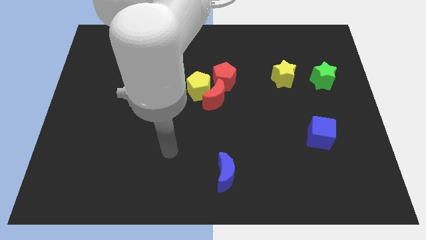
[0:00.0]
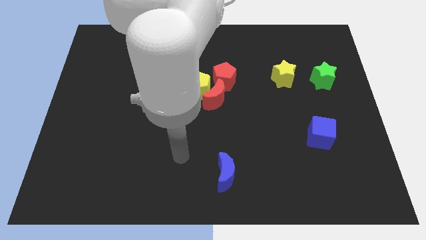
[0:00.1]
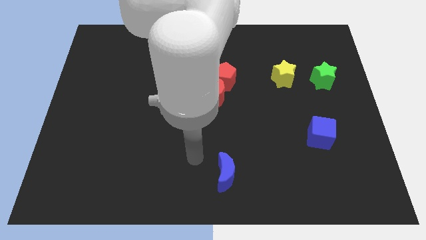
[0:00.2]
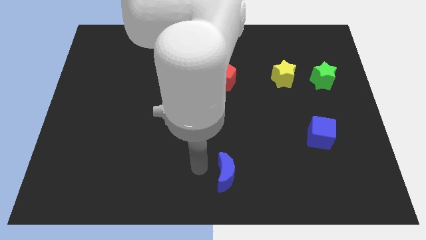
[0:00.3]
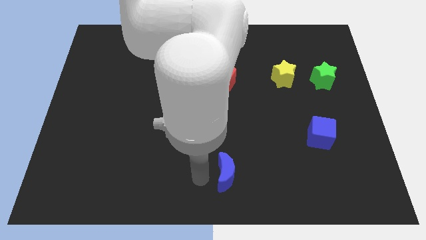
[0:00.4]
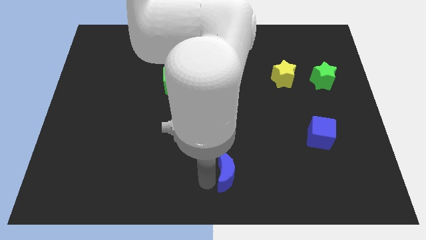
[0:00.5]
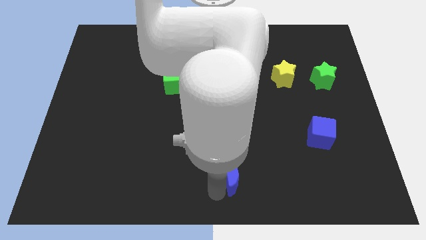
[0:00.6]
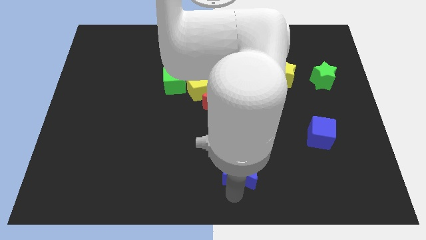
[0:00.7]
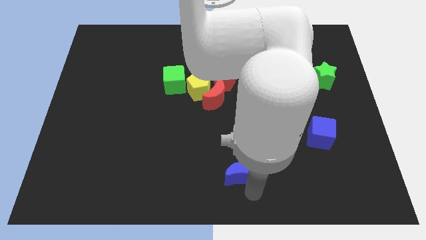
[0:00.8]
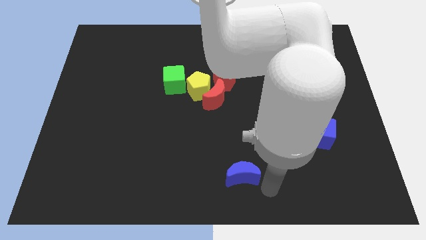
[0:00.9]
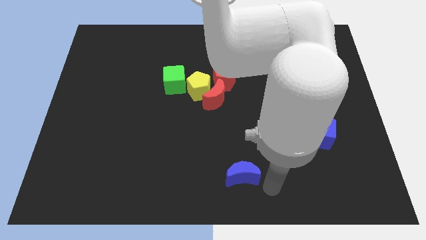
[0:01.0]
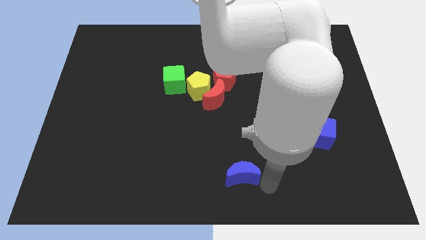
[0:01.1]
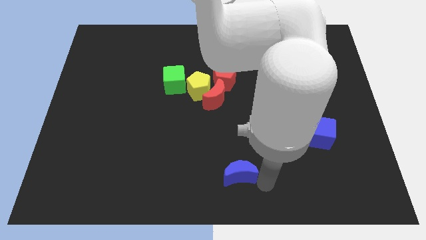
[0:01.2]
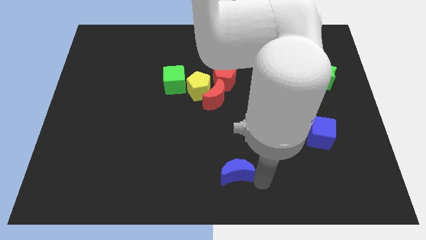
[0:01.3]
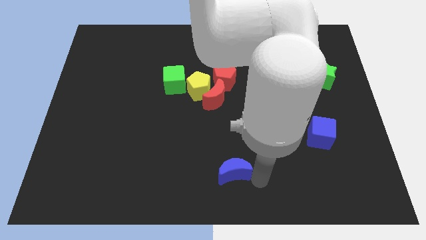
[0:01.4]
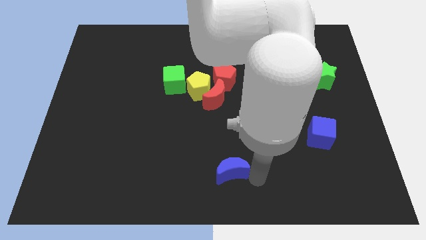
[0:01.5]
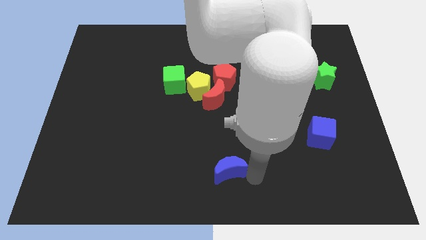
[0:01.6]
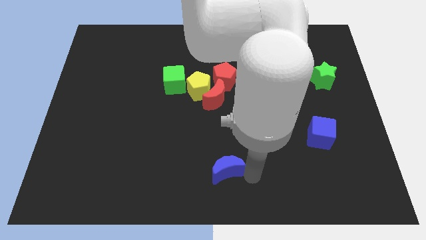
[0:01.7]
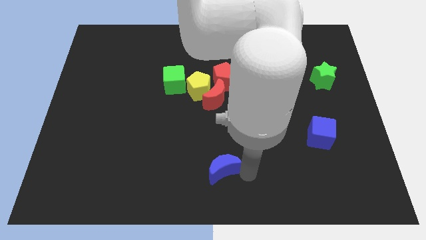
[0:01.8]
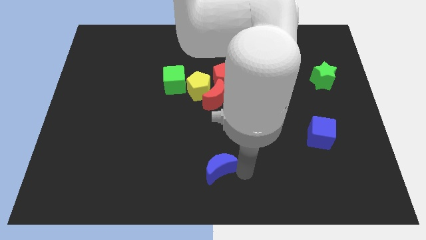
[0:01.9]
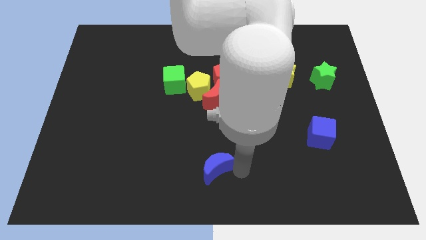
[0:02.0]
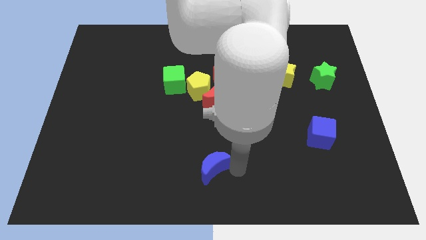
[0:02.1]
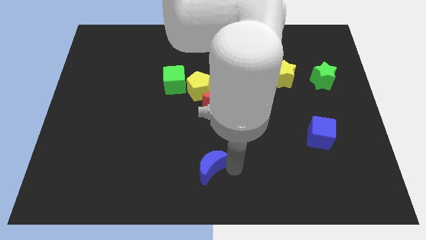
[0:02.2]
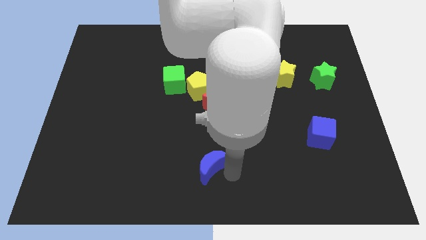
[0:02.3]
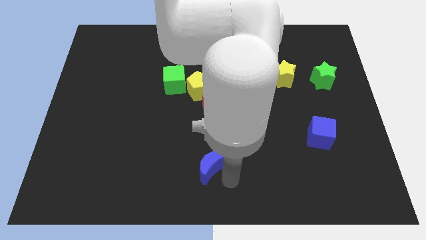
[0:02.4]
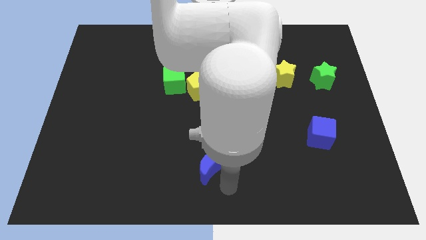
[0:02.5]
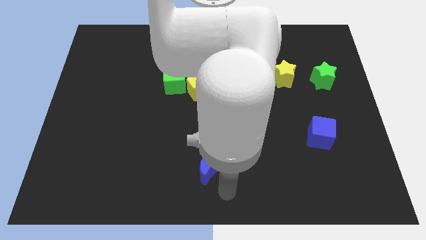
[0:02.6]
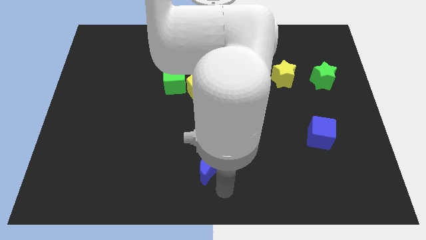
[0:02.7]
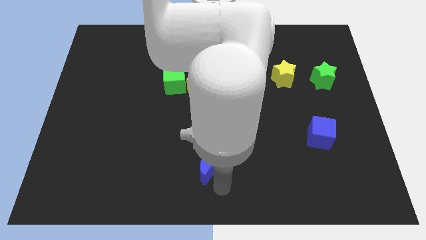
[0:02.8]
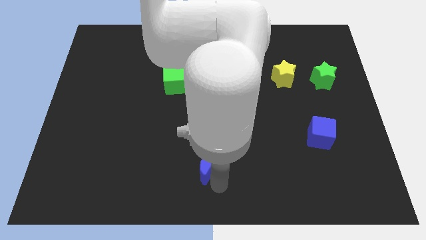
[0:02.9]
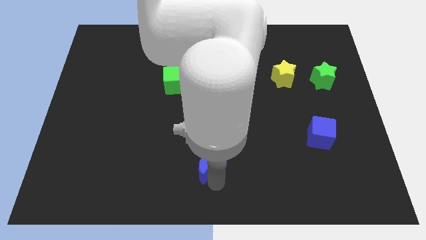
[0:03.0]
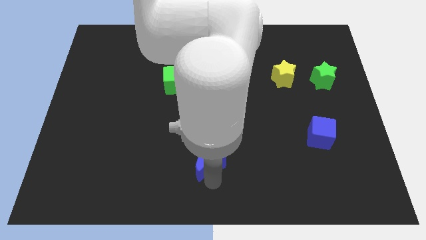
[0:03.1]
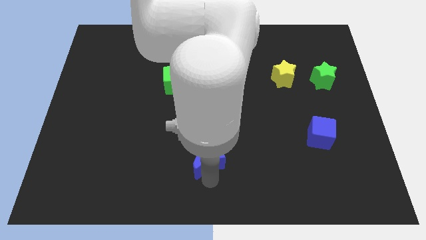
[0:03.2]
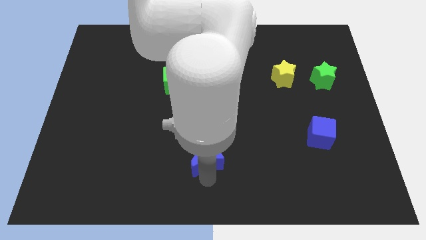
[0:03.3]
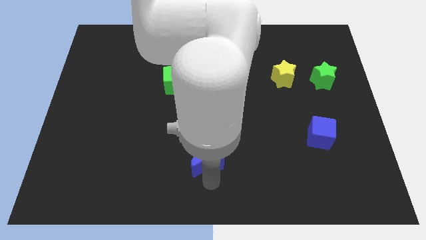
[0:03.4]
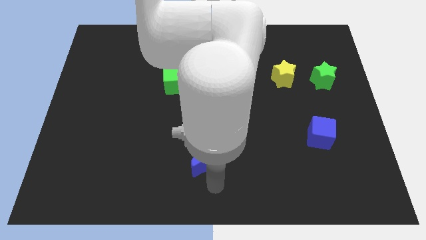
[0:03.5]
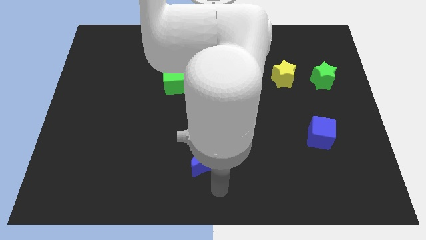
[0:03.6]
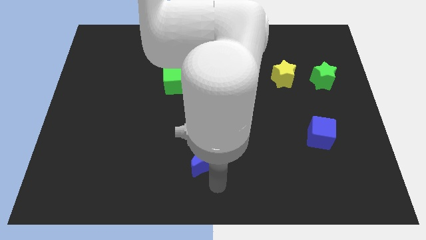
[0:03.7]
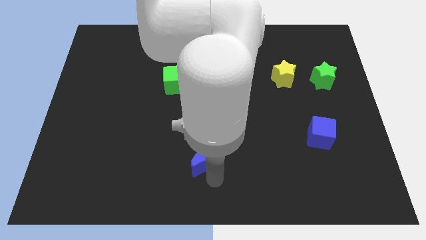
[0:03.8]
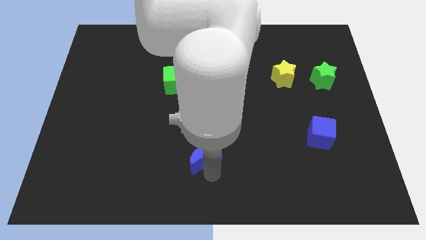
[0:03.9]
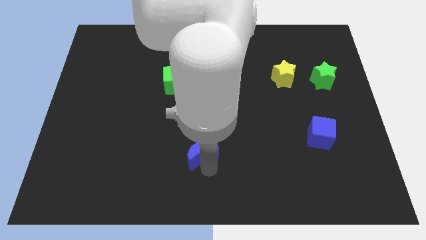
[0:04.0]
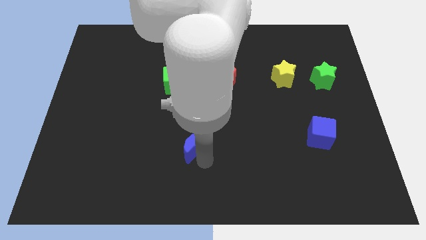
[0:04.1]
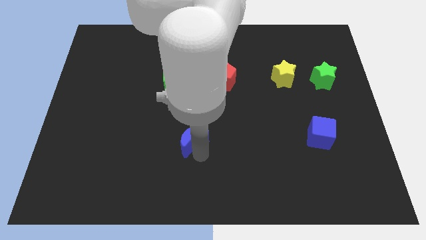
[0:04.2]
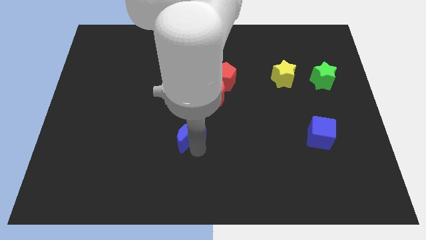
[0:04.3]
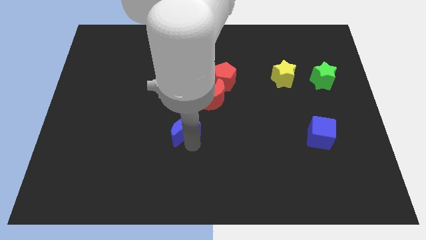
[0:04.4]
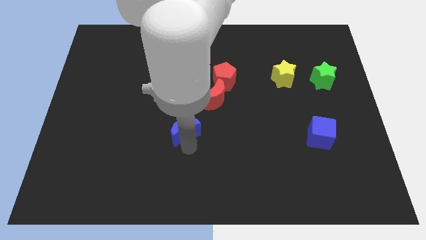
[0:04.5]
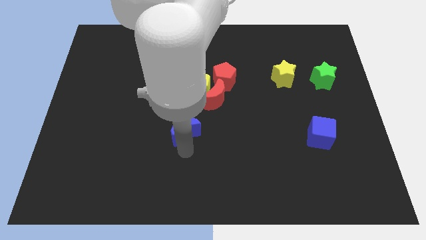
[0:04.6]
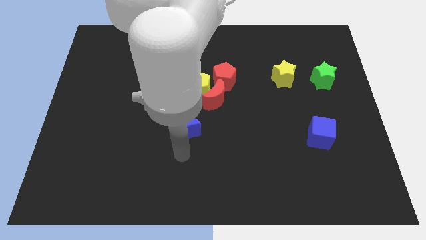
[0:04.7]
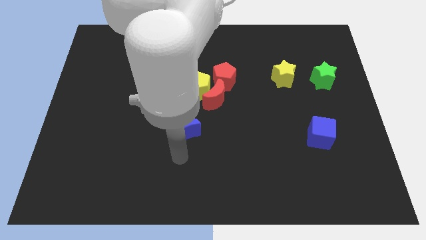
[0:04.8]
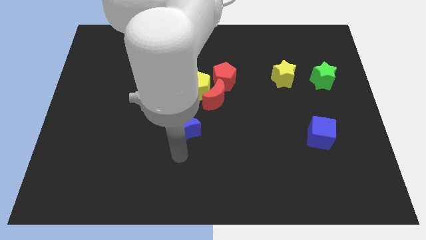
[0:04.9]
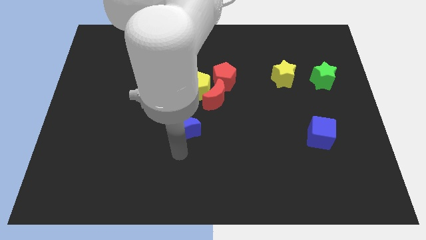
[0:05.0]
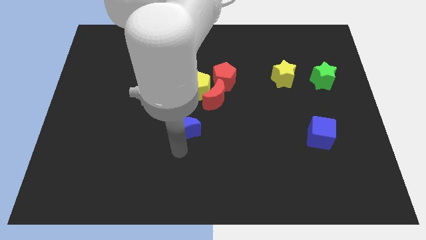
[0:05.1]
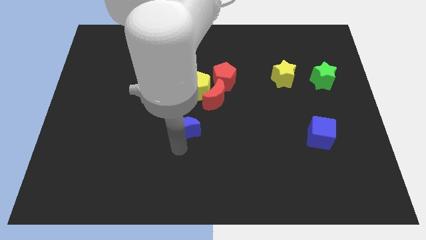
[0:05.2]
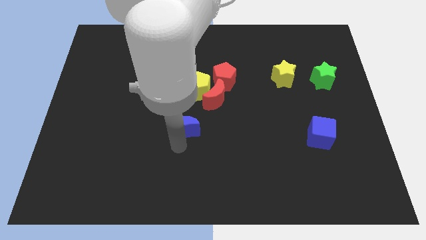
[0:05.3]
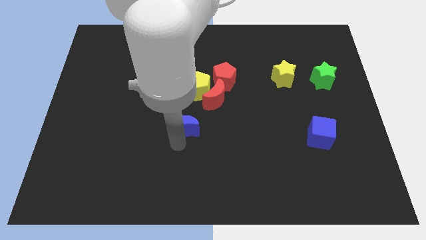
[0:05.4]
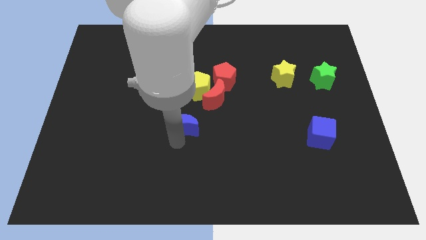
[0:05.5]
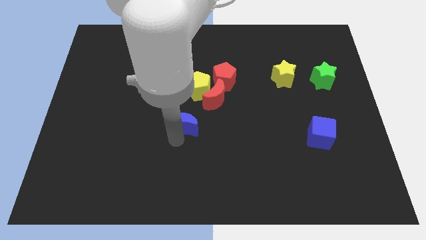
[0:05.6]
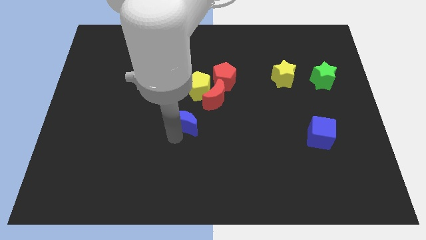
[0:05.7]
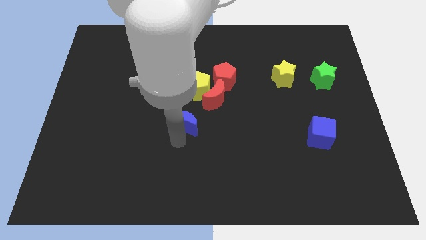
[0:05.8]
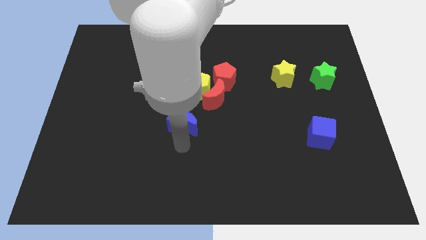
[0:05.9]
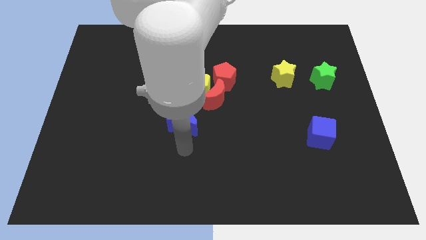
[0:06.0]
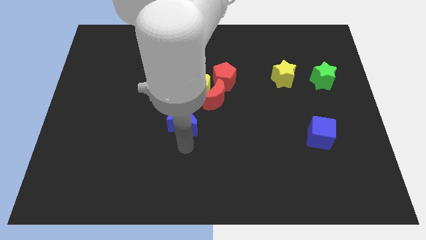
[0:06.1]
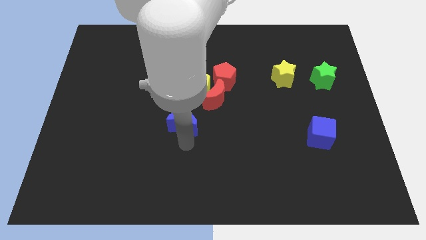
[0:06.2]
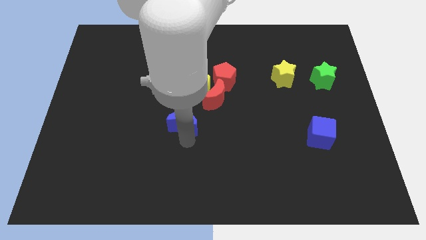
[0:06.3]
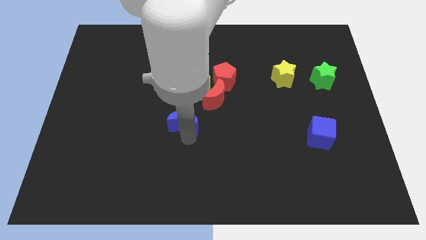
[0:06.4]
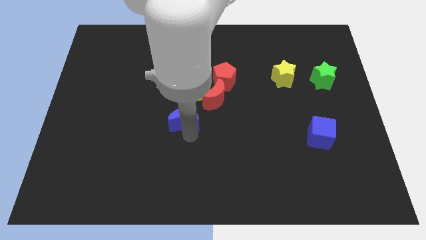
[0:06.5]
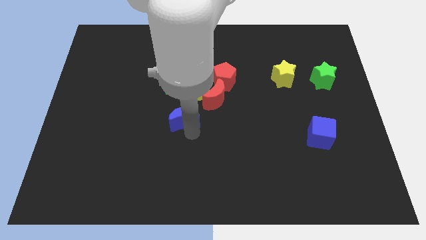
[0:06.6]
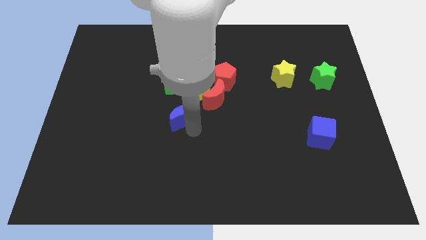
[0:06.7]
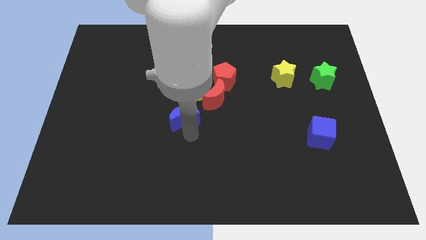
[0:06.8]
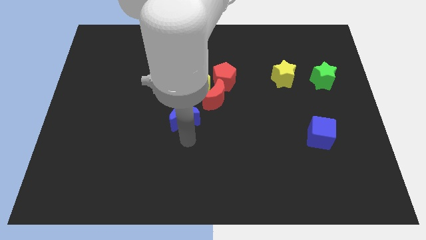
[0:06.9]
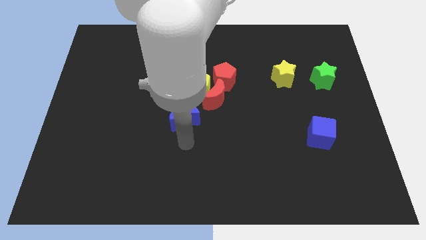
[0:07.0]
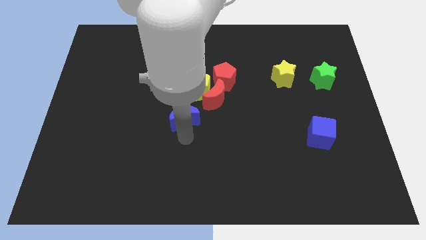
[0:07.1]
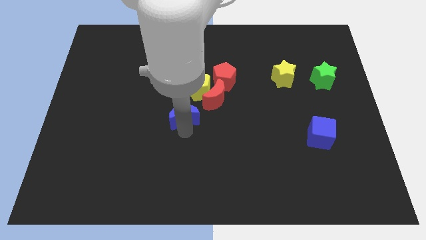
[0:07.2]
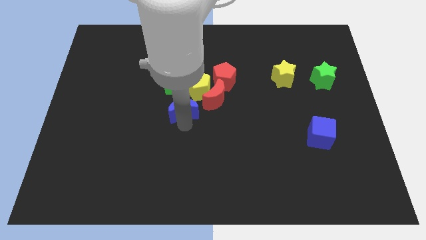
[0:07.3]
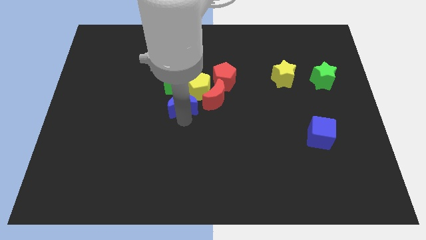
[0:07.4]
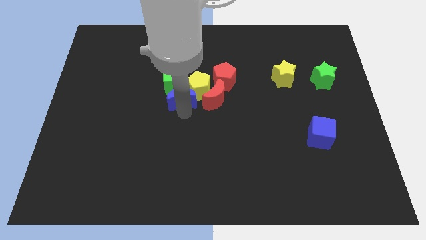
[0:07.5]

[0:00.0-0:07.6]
push the blue moon close to the green cube

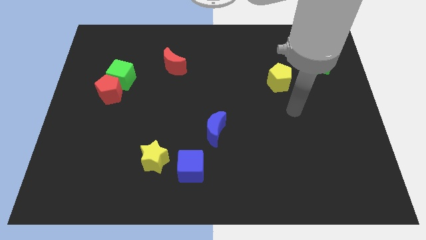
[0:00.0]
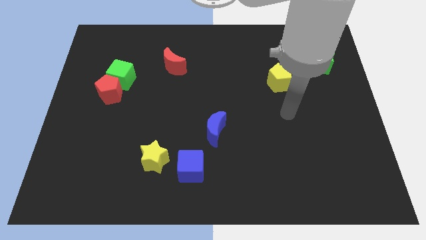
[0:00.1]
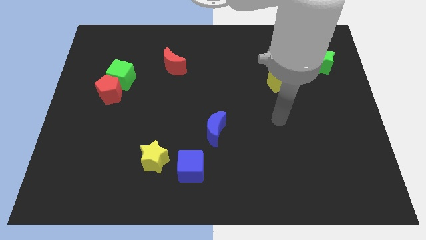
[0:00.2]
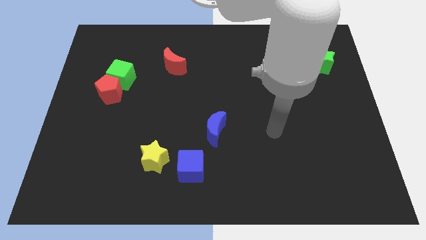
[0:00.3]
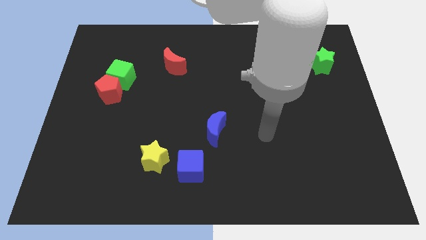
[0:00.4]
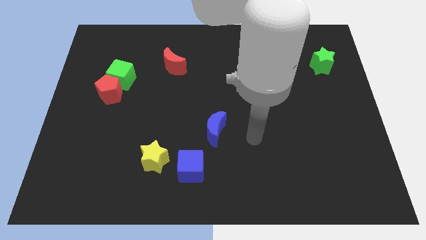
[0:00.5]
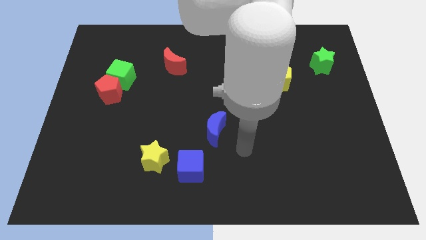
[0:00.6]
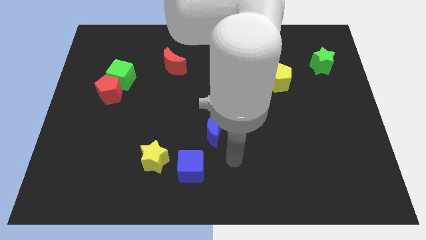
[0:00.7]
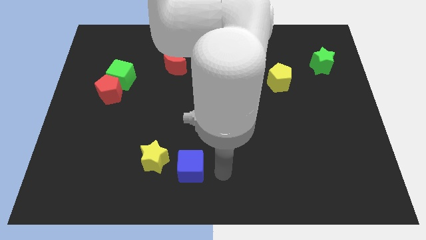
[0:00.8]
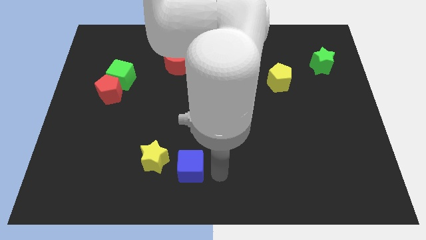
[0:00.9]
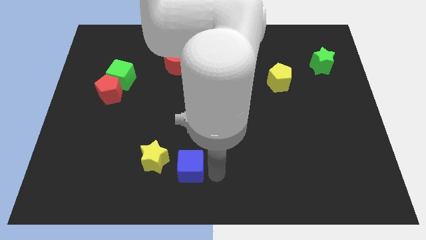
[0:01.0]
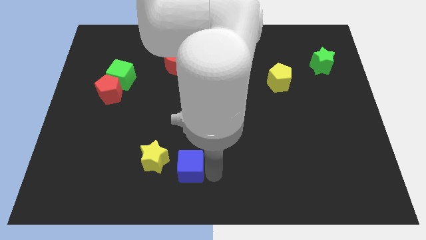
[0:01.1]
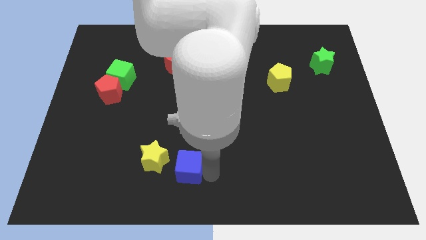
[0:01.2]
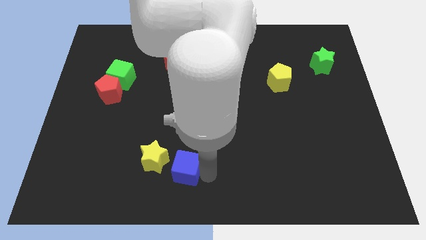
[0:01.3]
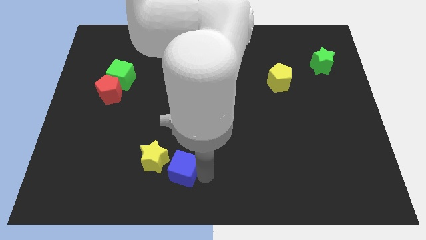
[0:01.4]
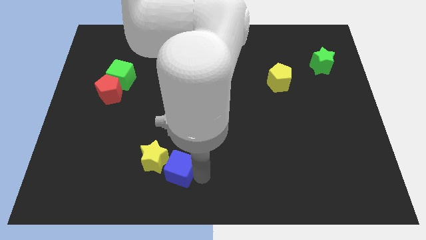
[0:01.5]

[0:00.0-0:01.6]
slide the blue cube next to the yellow star
